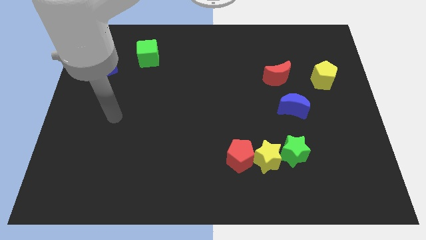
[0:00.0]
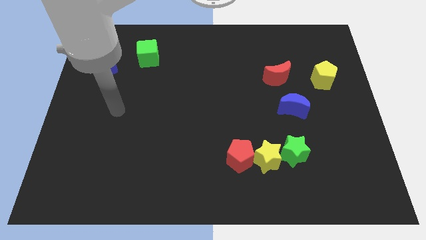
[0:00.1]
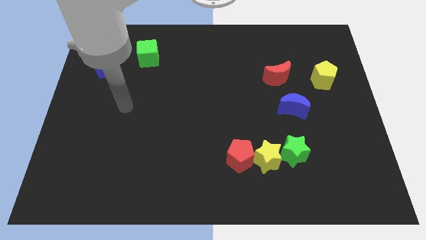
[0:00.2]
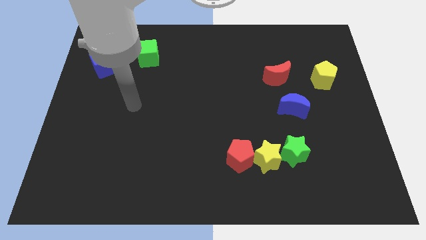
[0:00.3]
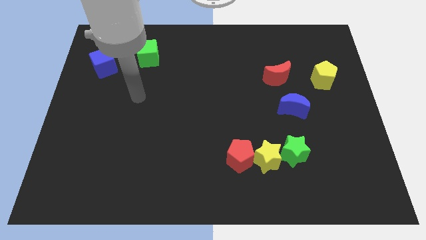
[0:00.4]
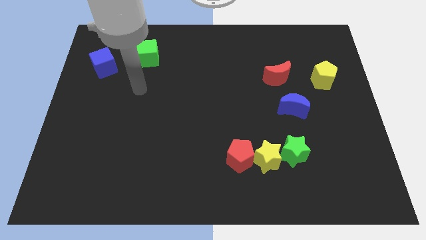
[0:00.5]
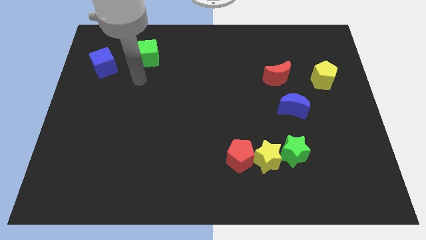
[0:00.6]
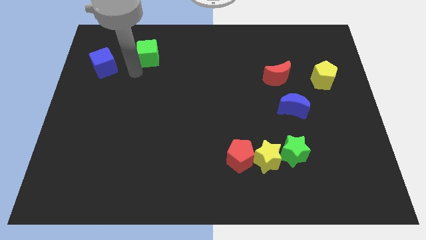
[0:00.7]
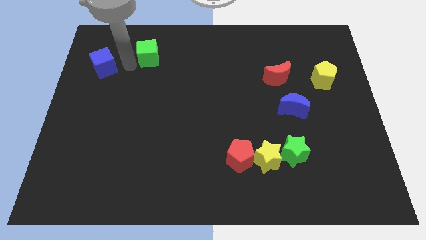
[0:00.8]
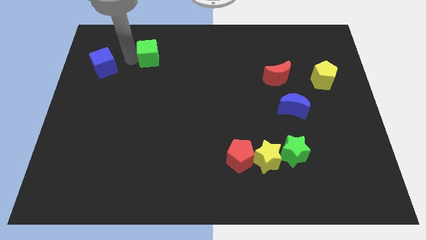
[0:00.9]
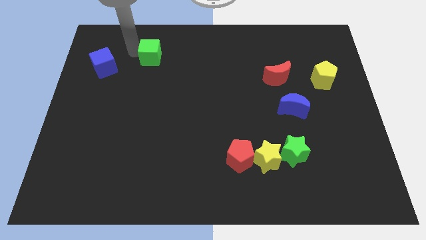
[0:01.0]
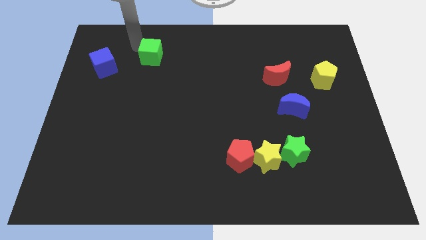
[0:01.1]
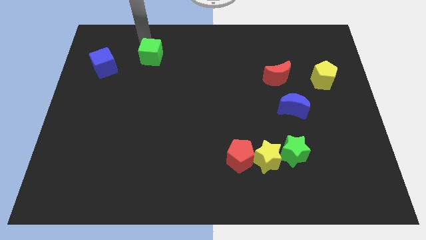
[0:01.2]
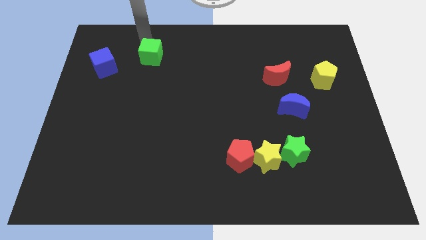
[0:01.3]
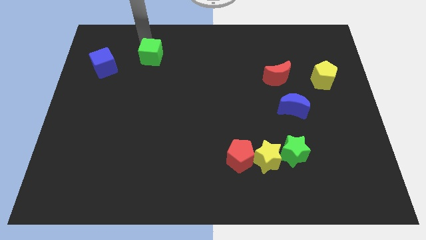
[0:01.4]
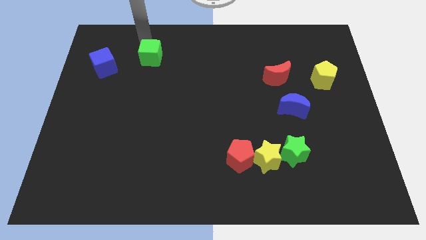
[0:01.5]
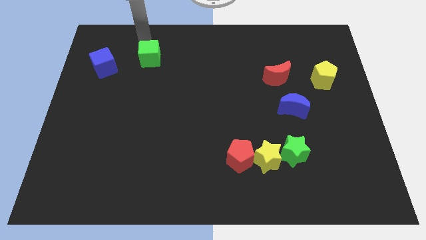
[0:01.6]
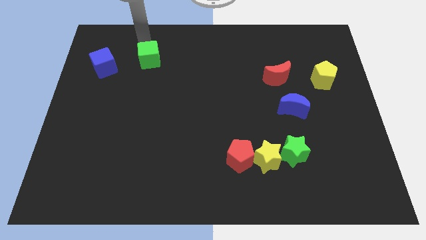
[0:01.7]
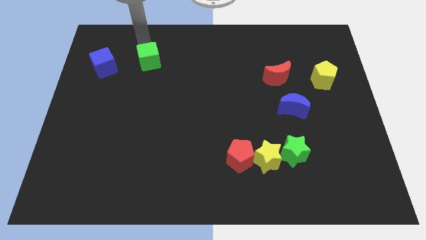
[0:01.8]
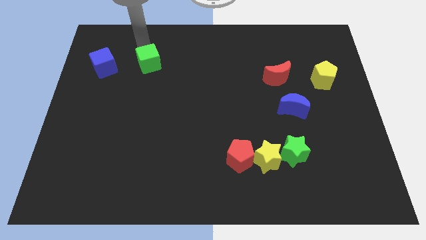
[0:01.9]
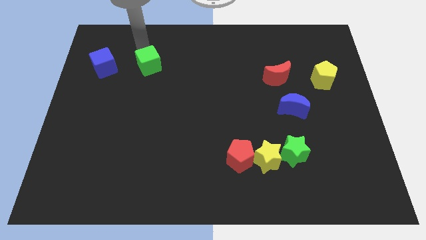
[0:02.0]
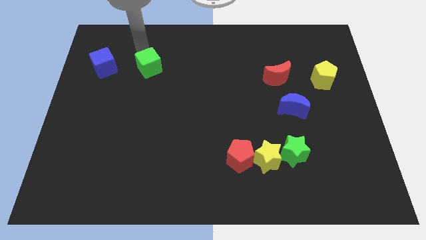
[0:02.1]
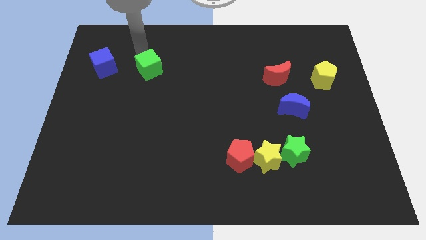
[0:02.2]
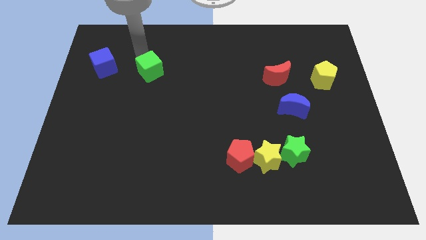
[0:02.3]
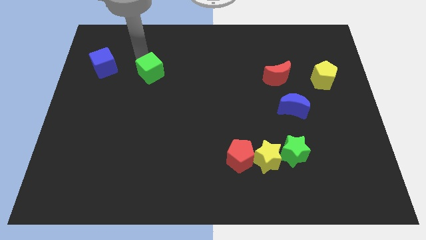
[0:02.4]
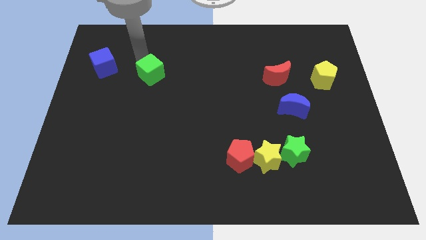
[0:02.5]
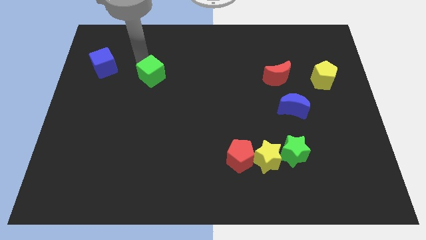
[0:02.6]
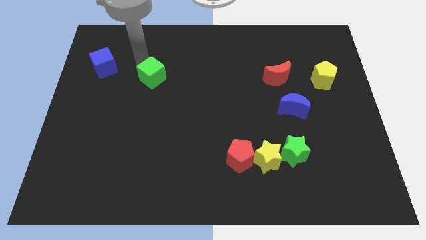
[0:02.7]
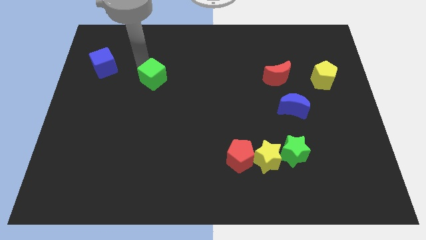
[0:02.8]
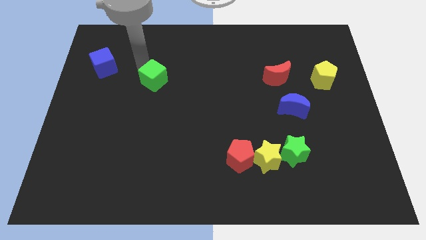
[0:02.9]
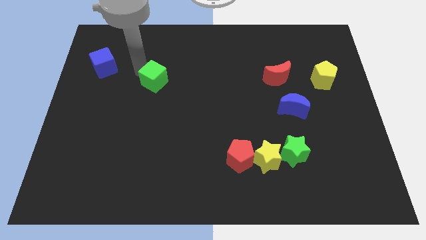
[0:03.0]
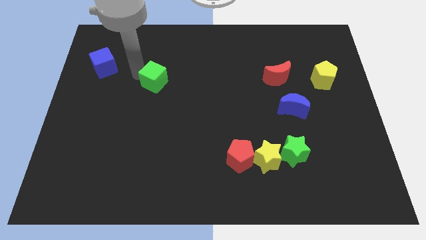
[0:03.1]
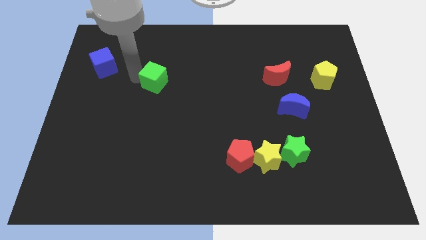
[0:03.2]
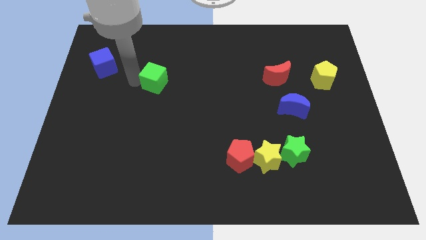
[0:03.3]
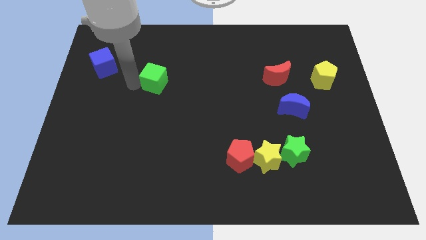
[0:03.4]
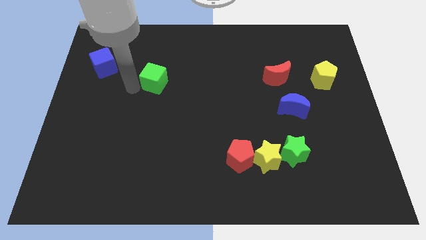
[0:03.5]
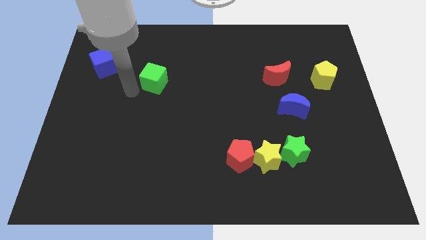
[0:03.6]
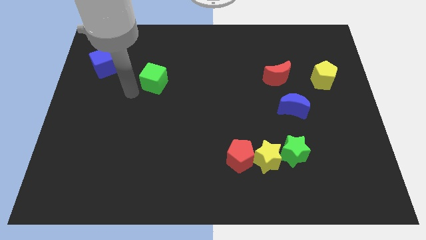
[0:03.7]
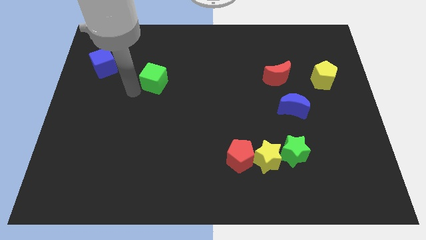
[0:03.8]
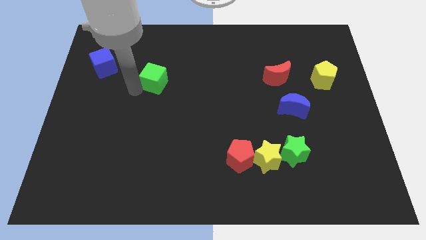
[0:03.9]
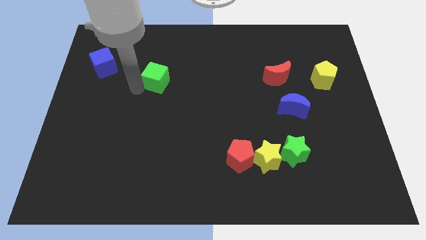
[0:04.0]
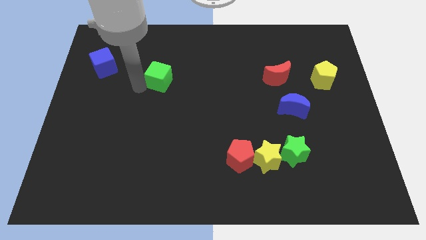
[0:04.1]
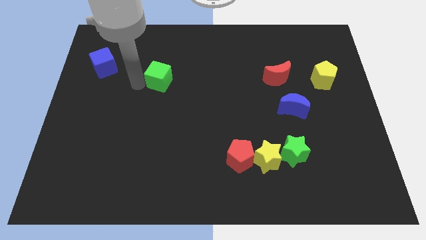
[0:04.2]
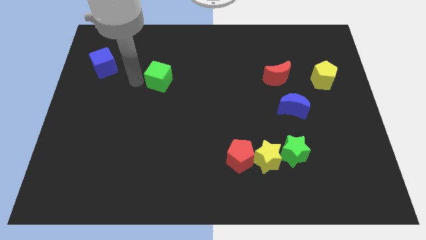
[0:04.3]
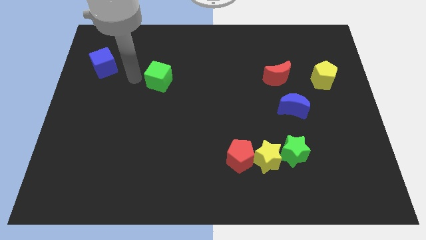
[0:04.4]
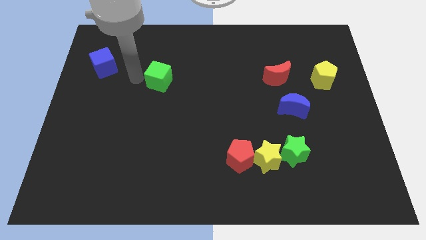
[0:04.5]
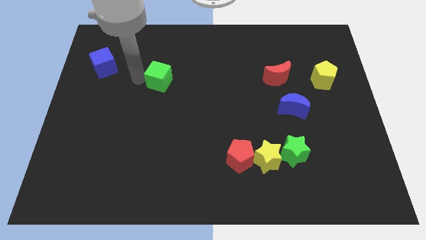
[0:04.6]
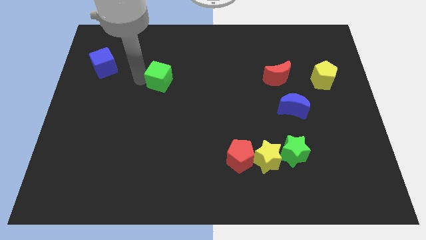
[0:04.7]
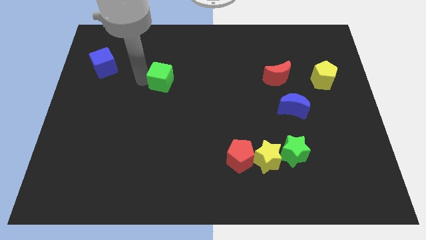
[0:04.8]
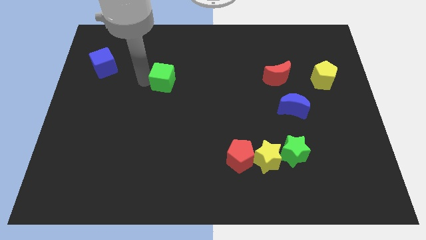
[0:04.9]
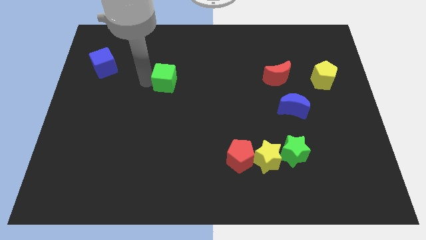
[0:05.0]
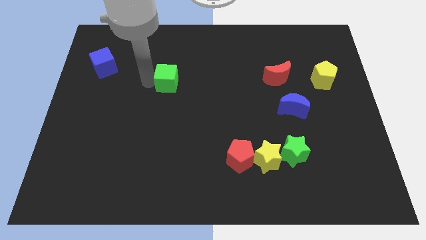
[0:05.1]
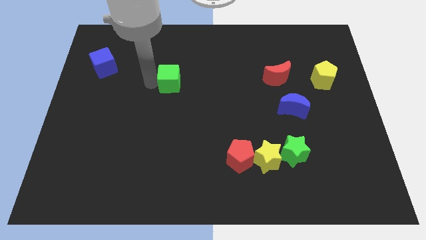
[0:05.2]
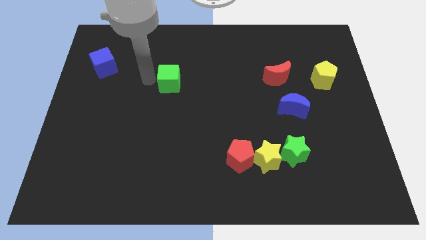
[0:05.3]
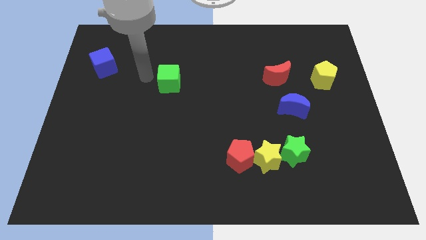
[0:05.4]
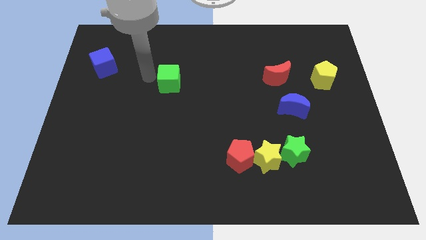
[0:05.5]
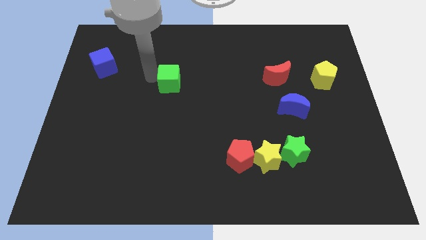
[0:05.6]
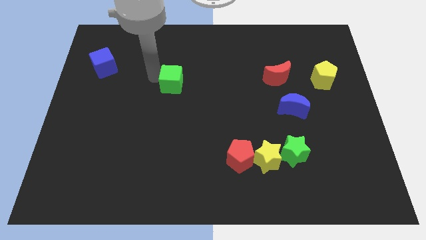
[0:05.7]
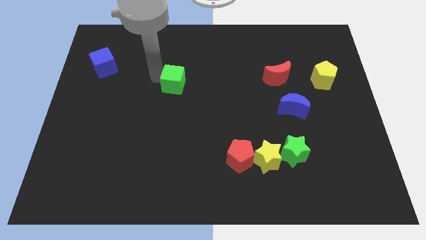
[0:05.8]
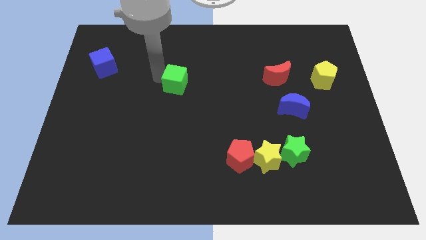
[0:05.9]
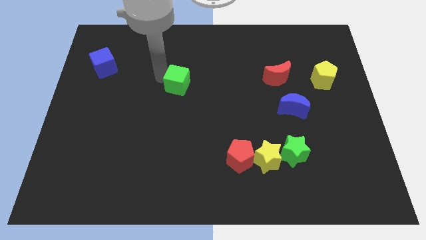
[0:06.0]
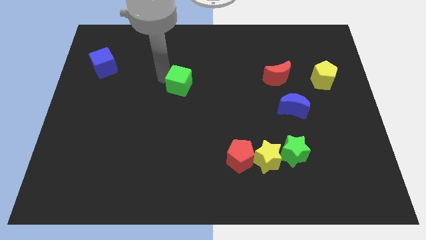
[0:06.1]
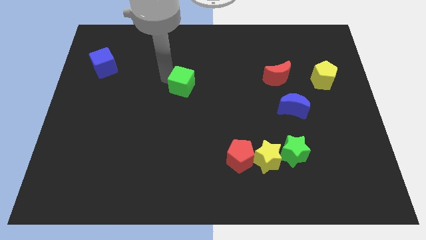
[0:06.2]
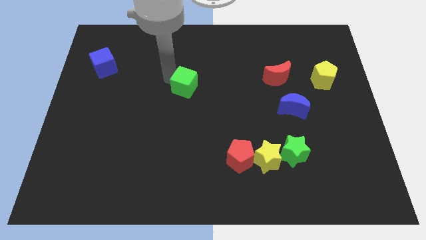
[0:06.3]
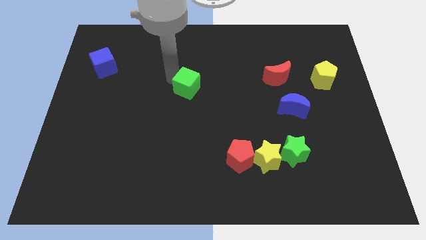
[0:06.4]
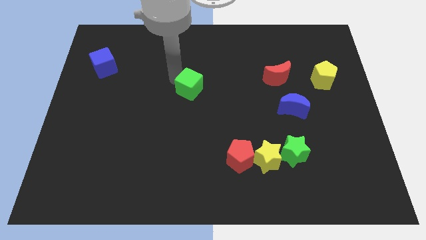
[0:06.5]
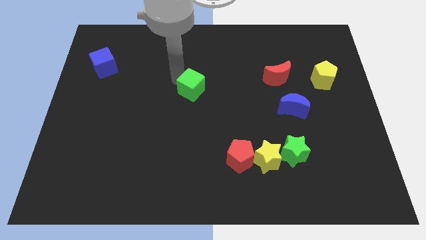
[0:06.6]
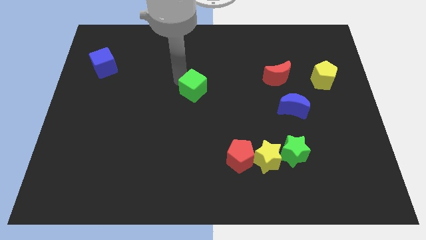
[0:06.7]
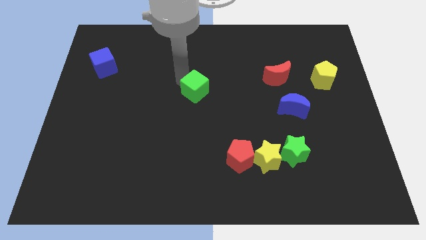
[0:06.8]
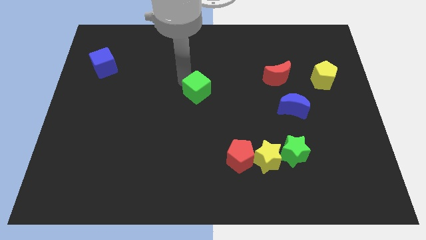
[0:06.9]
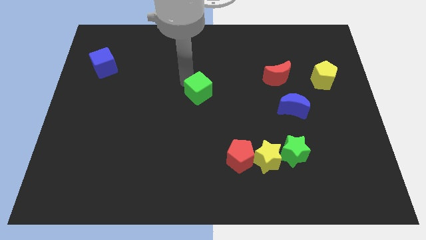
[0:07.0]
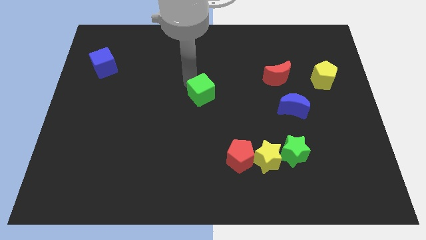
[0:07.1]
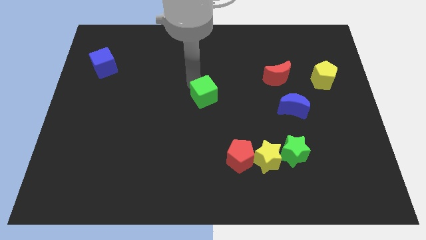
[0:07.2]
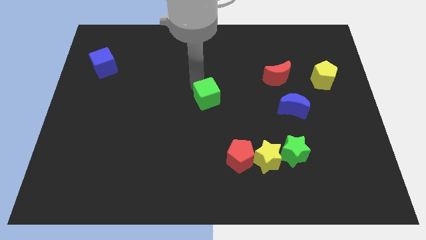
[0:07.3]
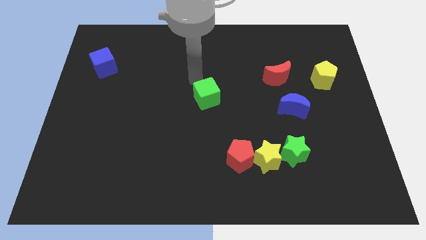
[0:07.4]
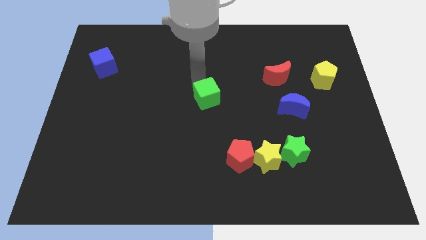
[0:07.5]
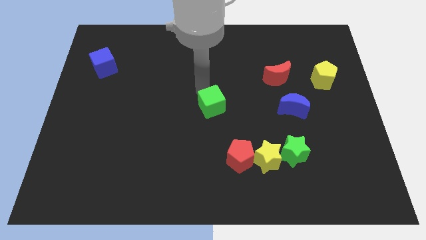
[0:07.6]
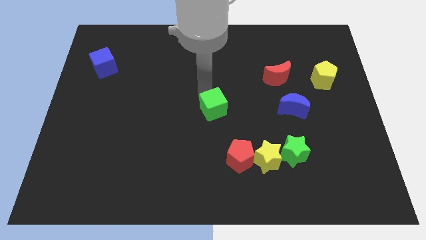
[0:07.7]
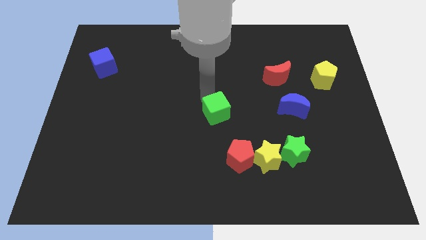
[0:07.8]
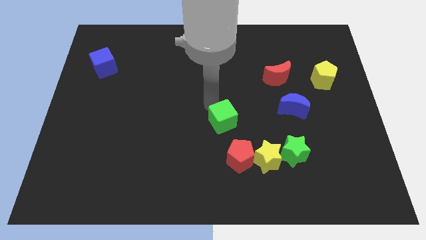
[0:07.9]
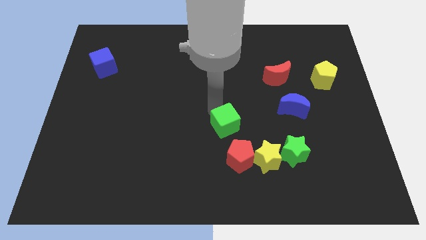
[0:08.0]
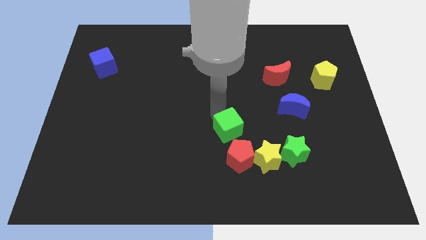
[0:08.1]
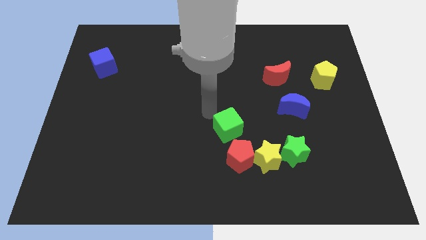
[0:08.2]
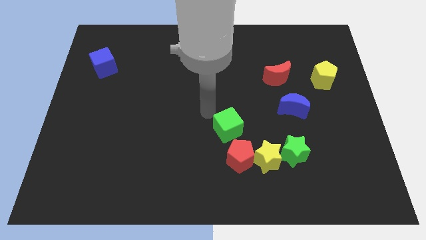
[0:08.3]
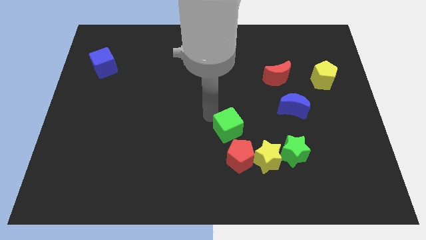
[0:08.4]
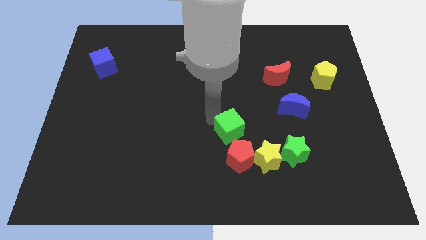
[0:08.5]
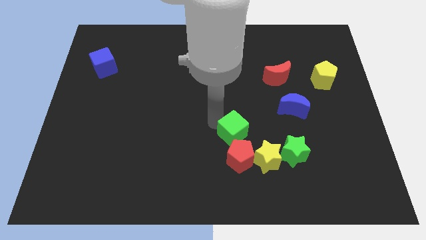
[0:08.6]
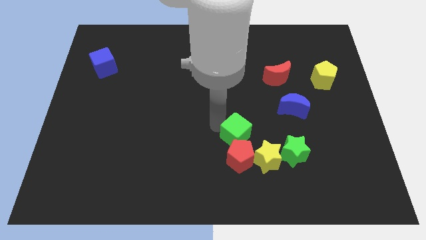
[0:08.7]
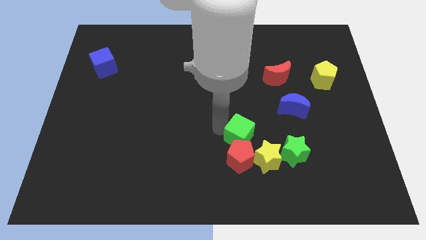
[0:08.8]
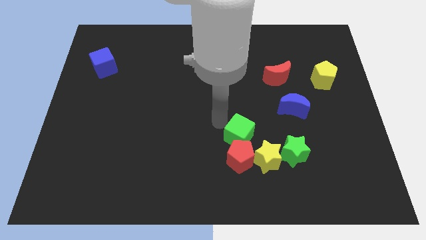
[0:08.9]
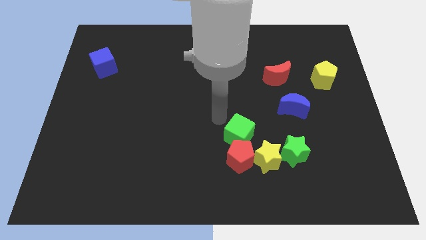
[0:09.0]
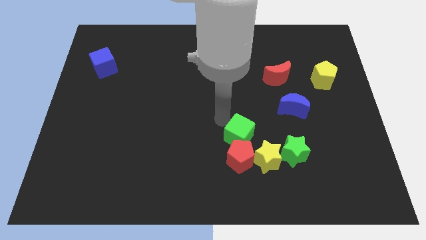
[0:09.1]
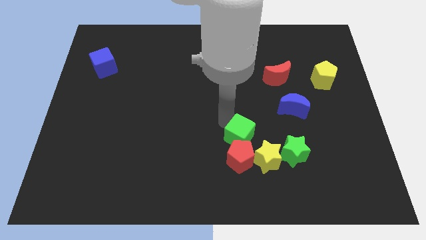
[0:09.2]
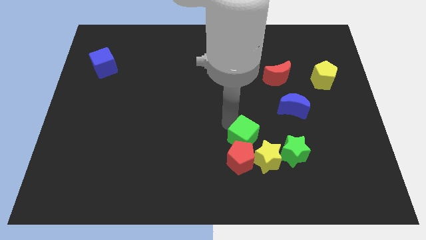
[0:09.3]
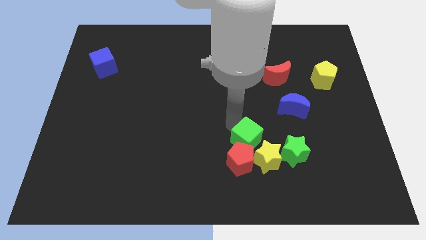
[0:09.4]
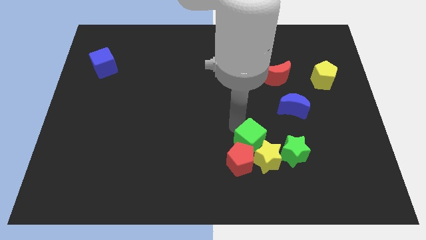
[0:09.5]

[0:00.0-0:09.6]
slide the green cube towards the yellow star
